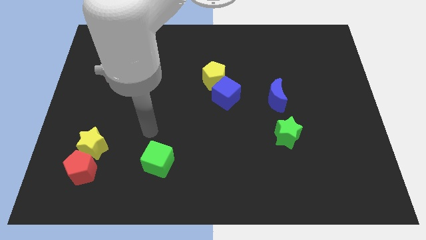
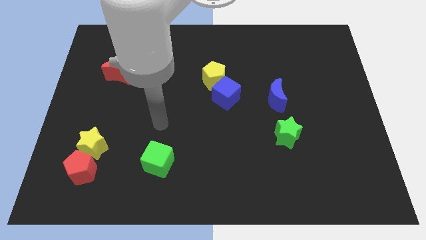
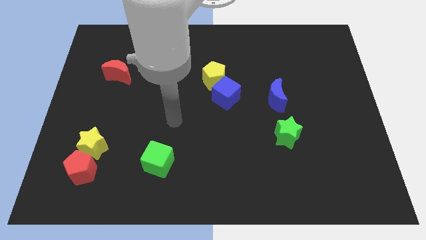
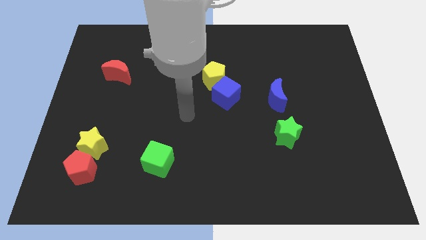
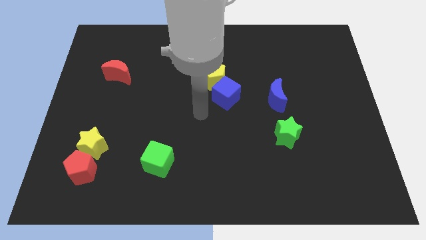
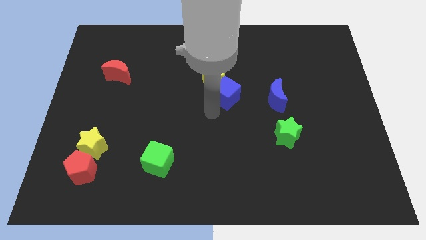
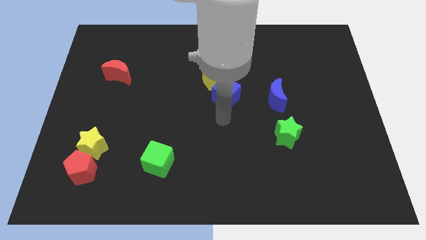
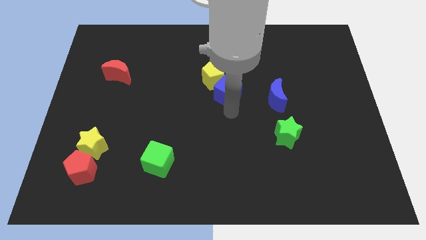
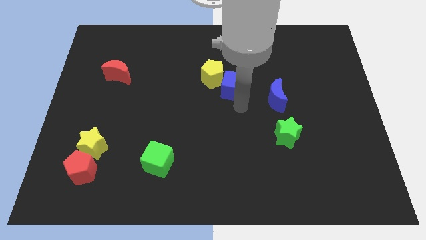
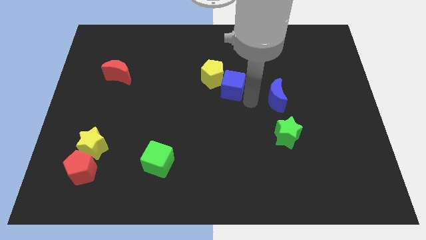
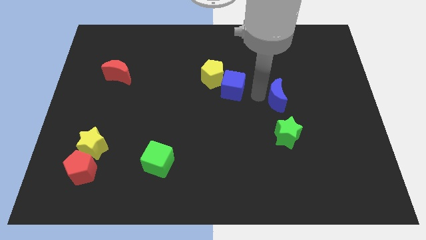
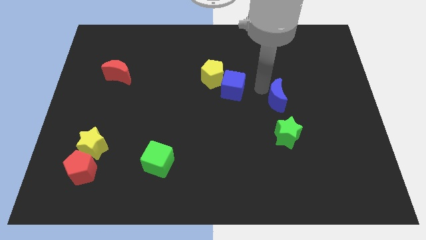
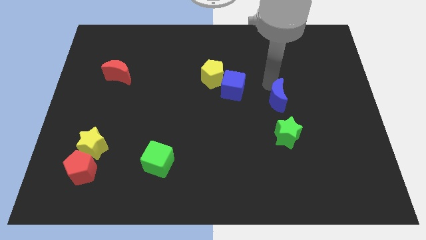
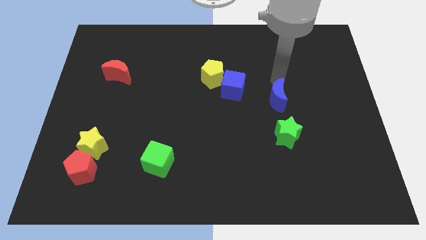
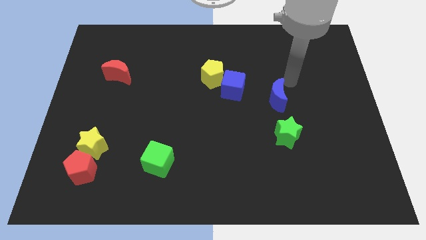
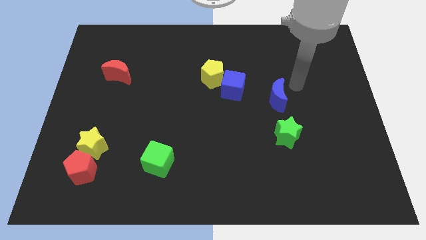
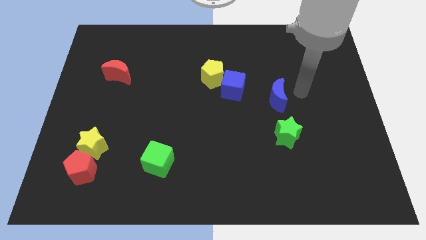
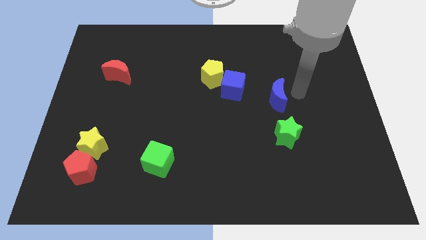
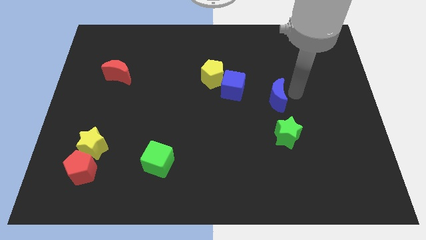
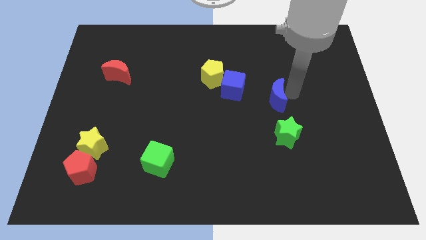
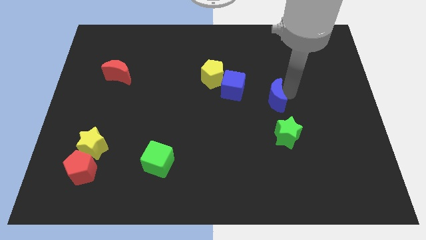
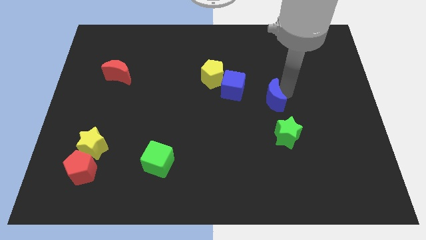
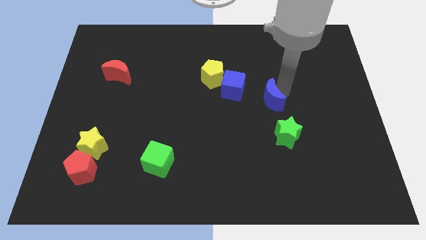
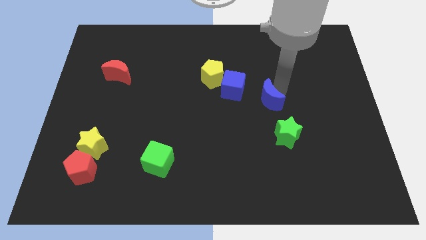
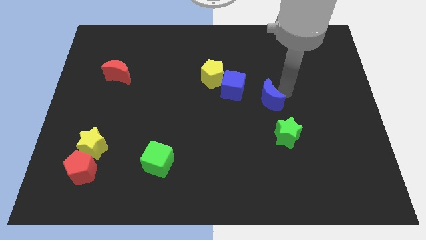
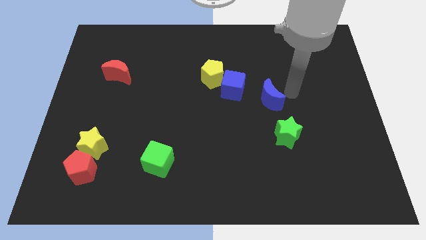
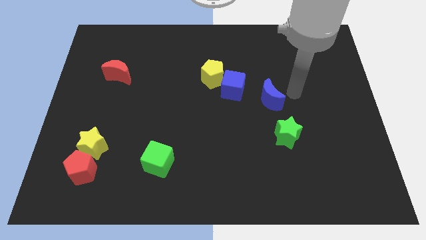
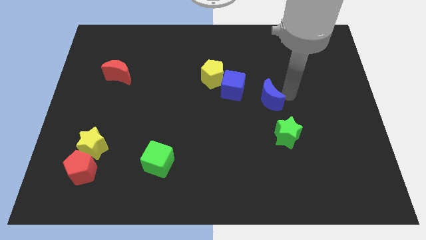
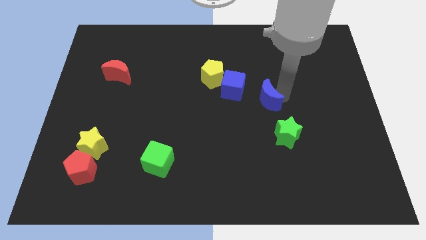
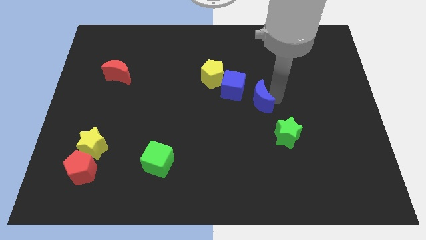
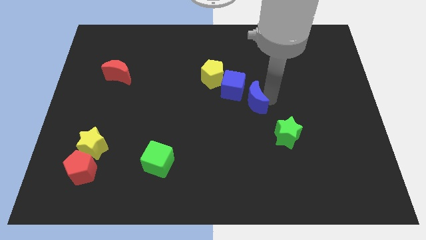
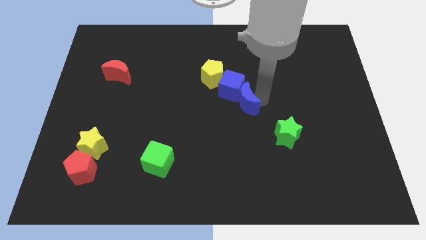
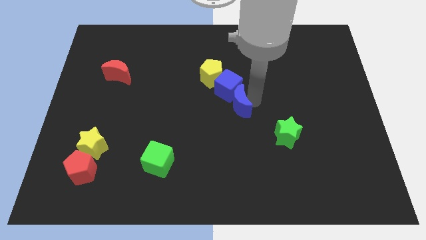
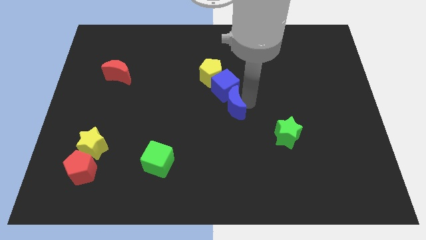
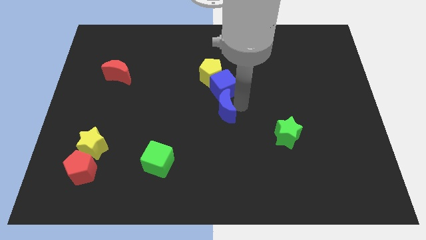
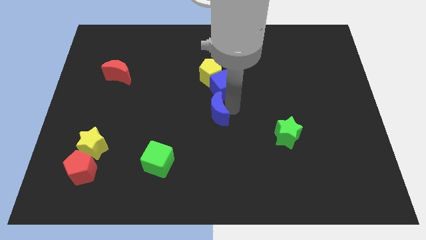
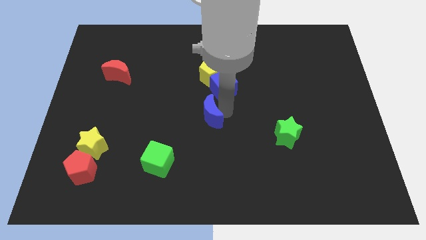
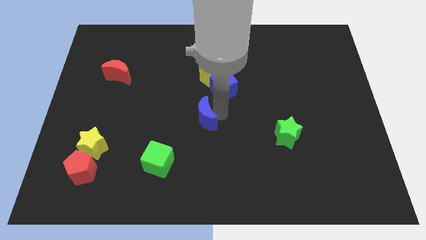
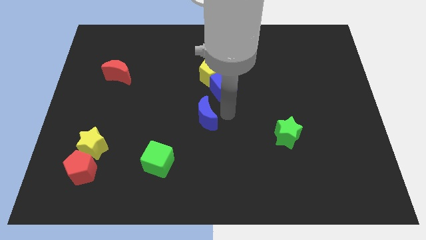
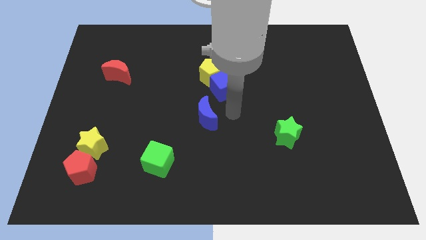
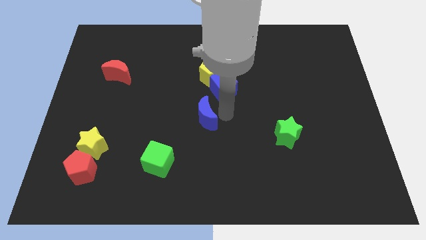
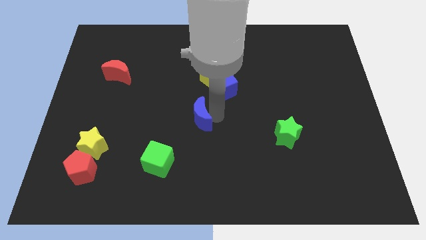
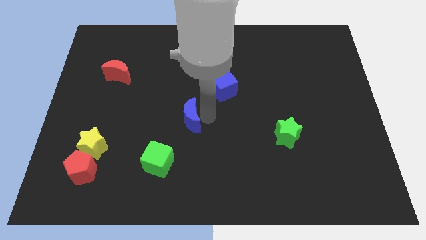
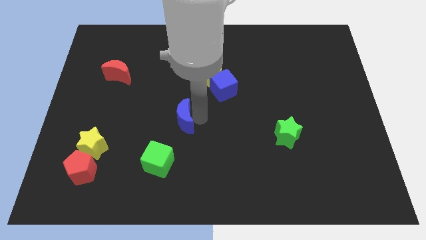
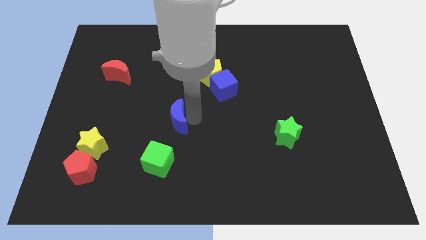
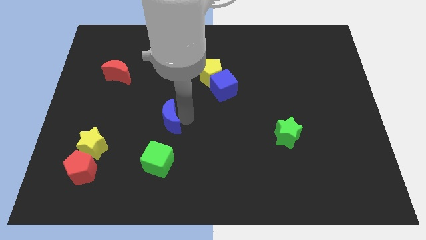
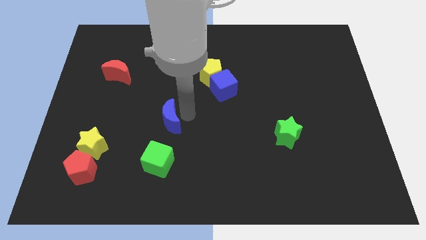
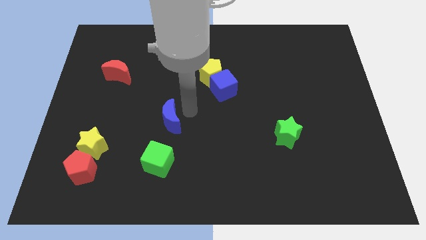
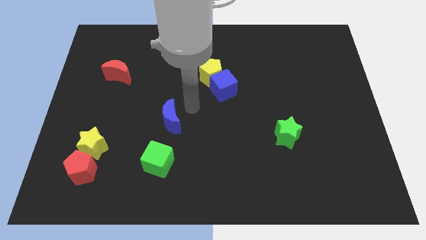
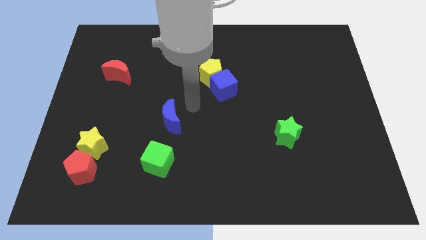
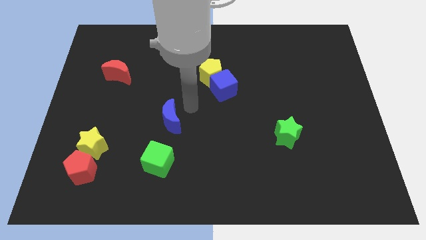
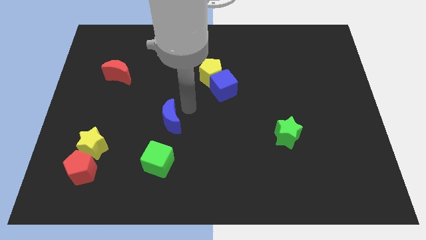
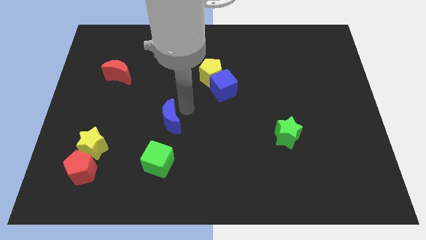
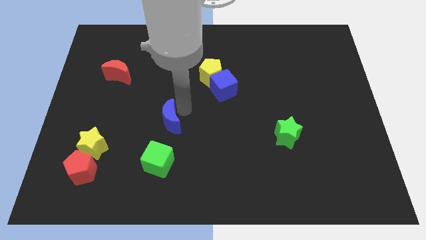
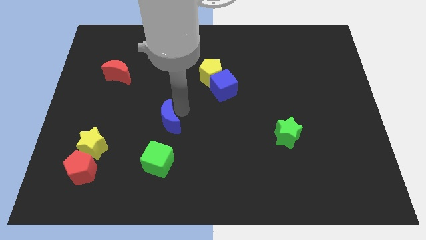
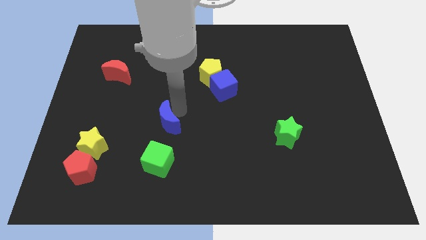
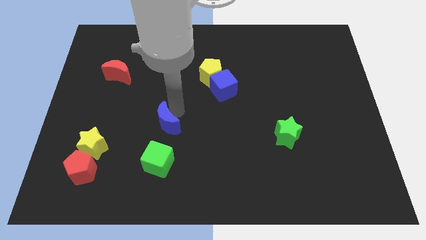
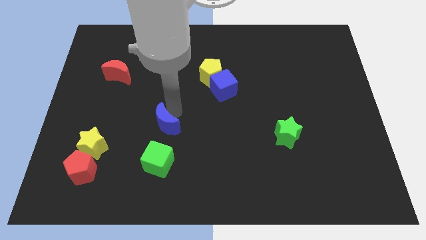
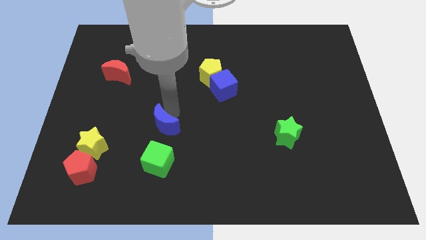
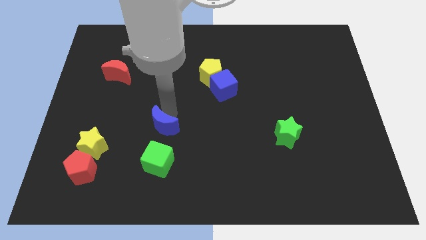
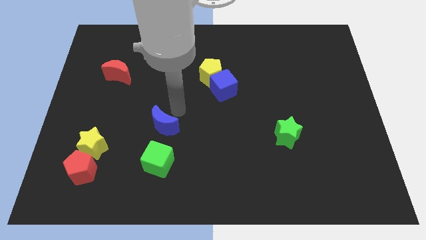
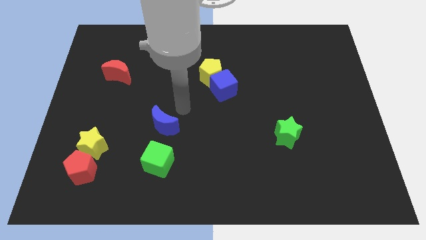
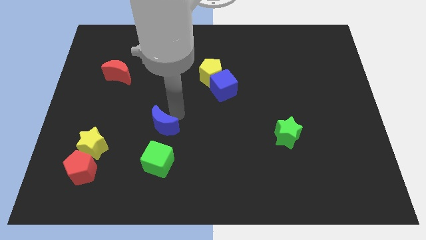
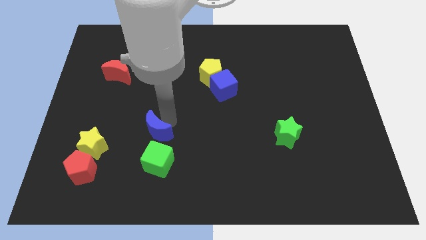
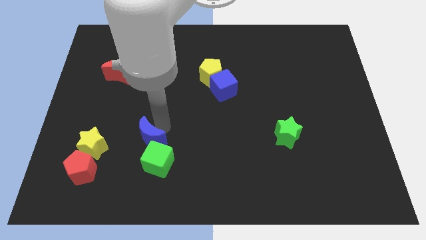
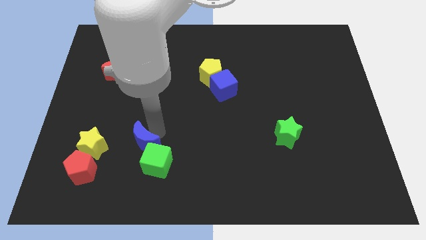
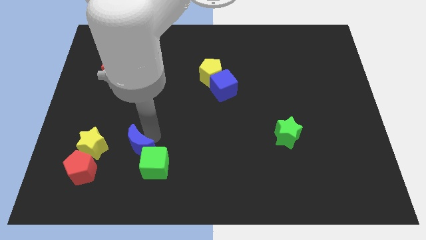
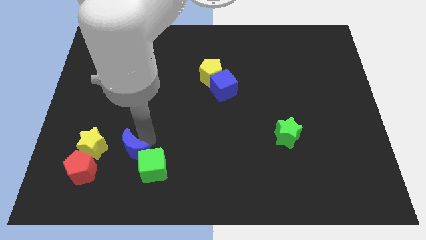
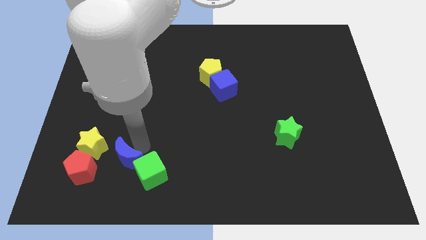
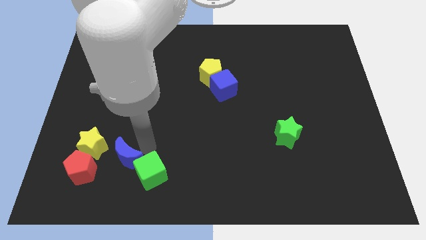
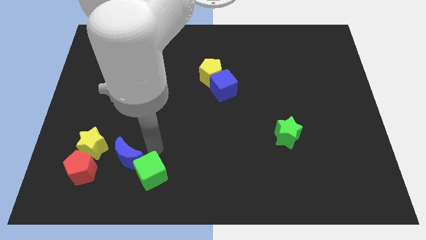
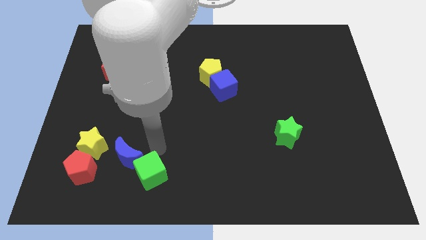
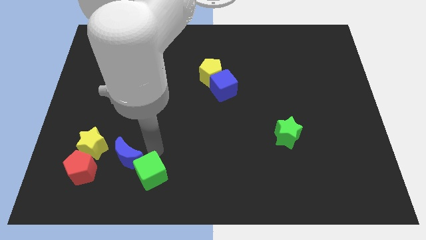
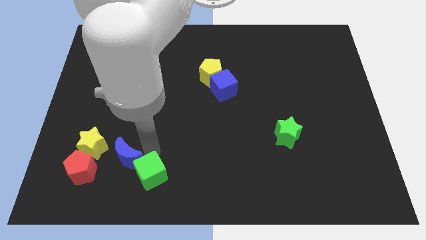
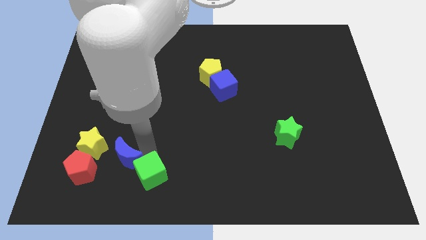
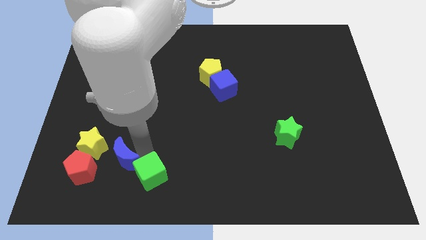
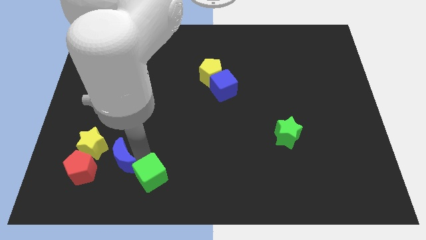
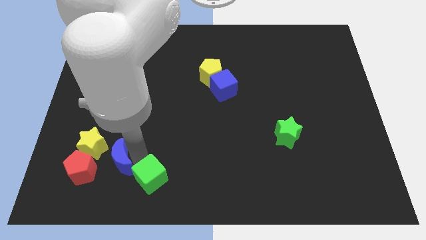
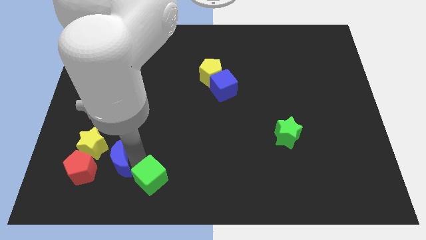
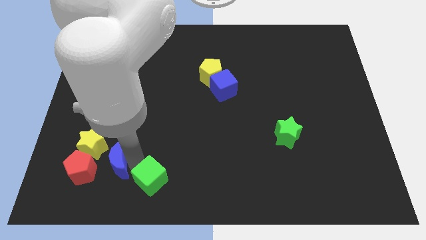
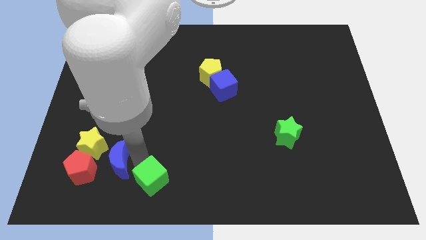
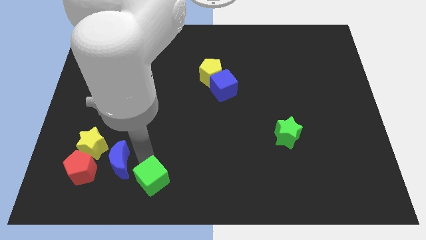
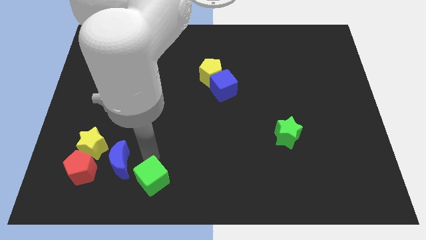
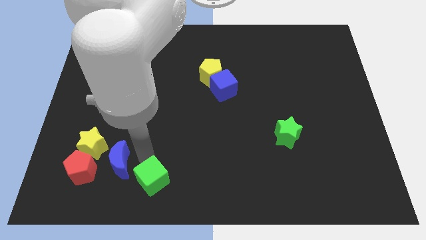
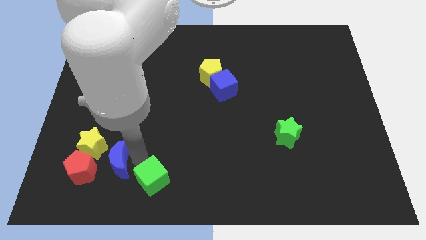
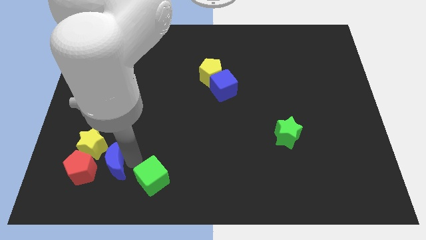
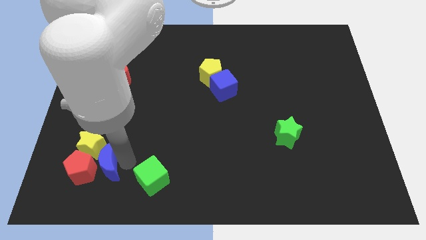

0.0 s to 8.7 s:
put the blue moon to the red pentagon
